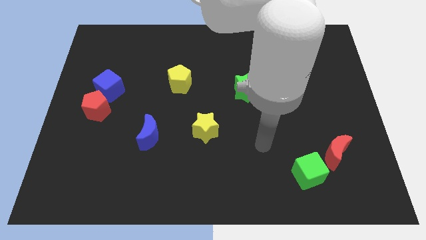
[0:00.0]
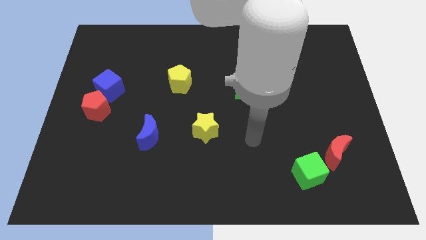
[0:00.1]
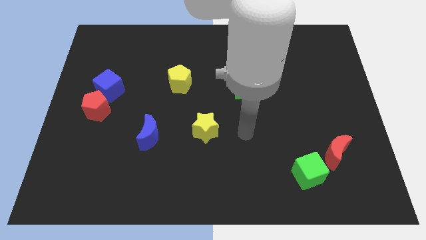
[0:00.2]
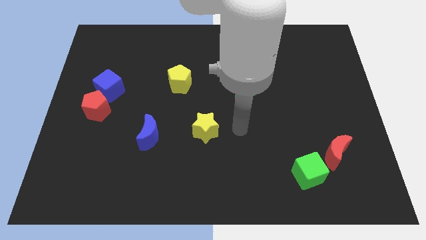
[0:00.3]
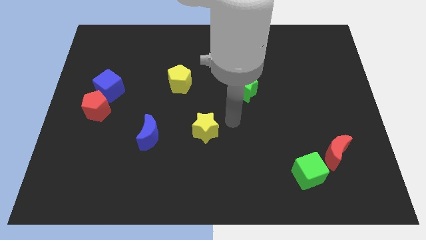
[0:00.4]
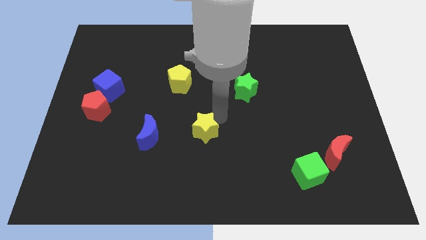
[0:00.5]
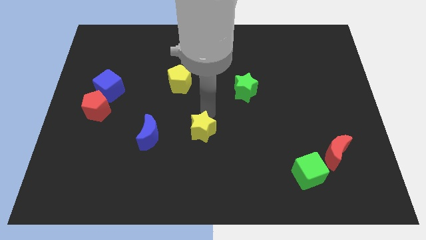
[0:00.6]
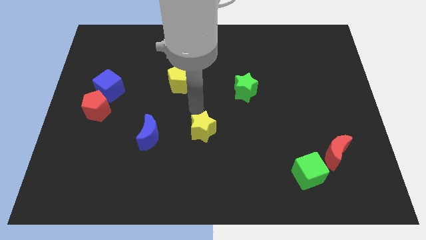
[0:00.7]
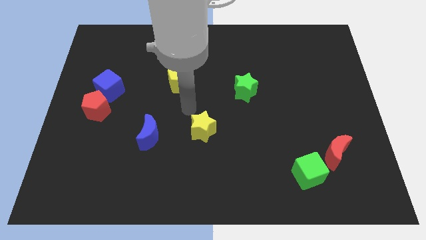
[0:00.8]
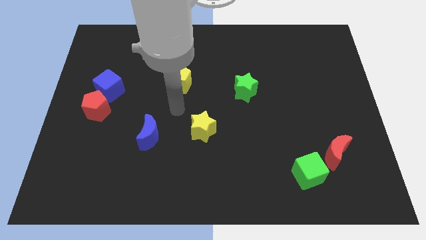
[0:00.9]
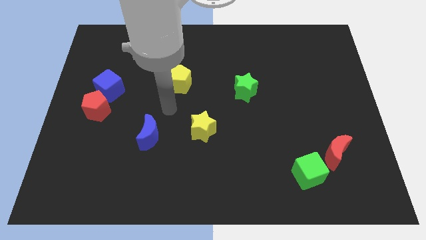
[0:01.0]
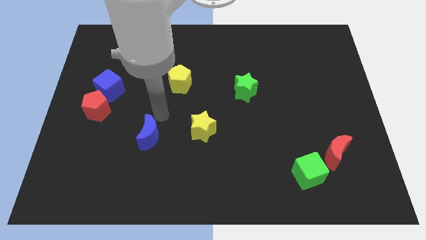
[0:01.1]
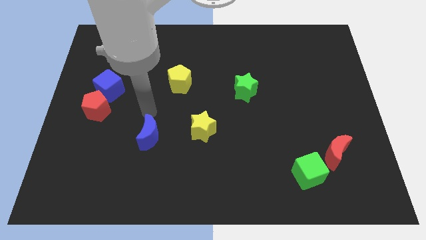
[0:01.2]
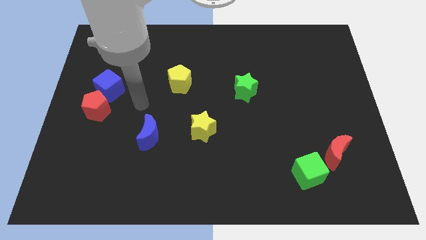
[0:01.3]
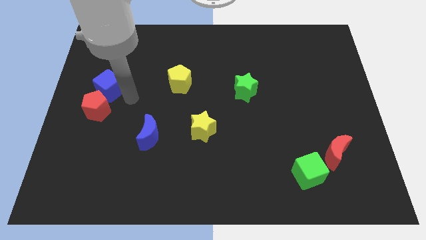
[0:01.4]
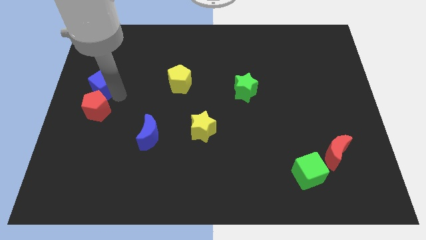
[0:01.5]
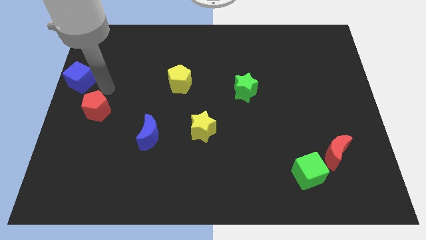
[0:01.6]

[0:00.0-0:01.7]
move the red pentagon away from the blue cube

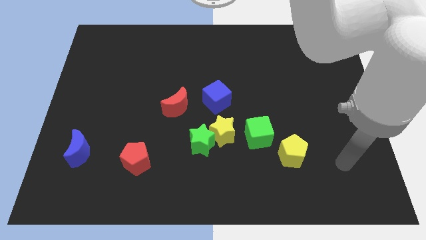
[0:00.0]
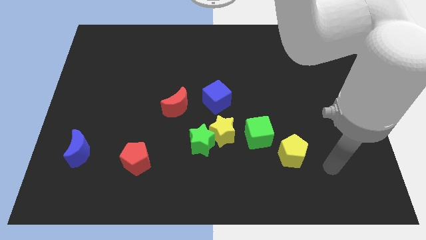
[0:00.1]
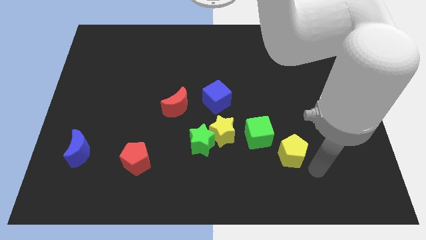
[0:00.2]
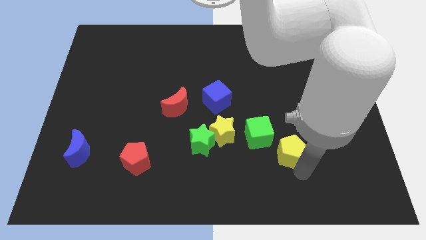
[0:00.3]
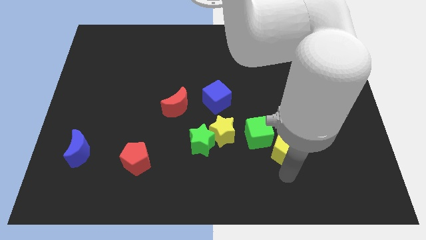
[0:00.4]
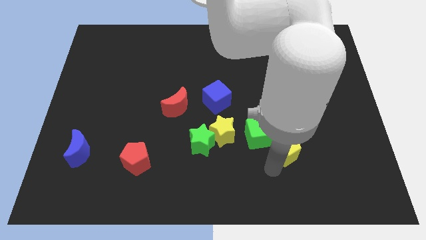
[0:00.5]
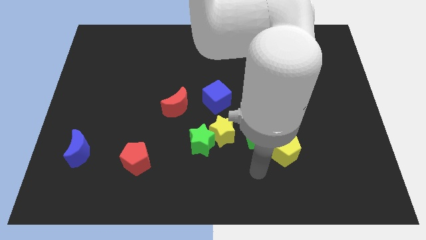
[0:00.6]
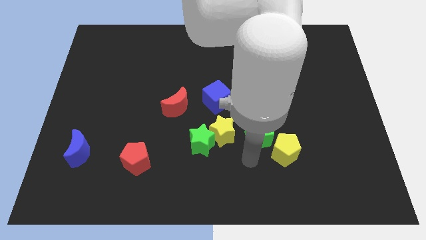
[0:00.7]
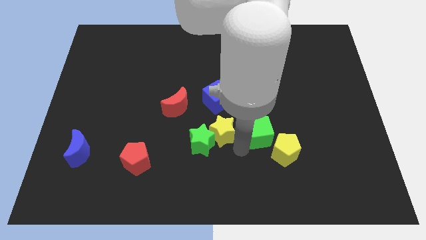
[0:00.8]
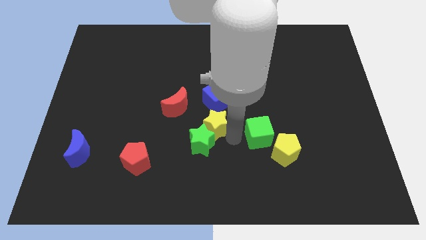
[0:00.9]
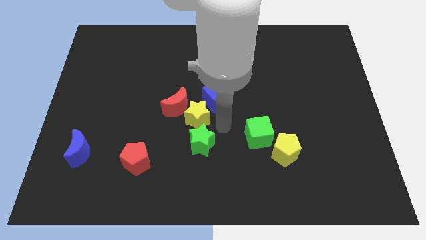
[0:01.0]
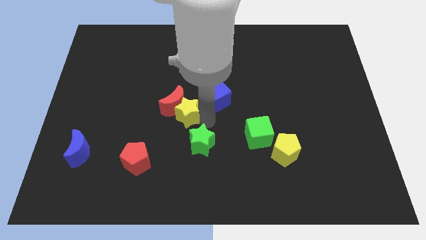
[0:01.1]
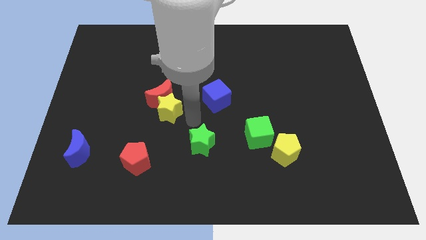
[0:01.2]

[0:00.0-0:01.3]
pull the green star apart from the yellow star

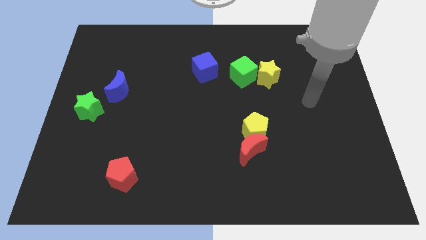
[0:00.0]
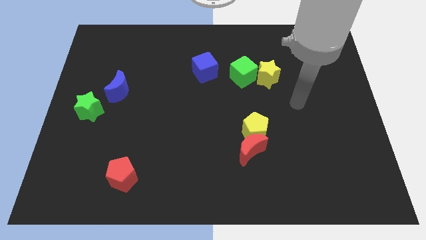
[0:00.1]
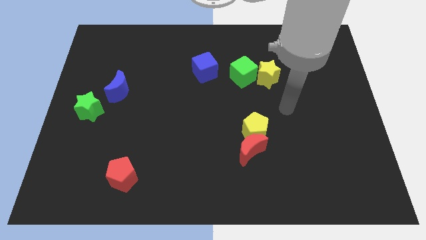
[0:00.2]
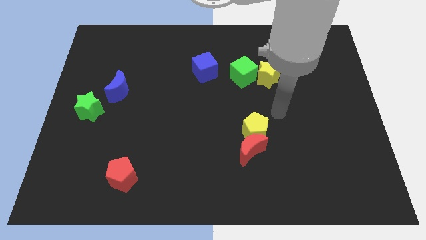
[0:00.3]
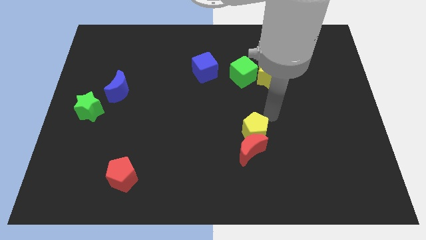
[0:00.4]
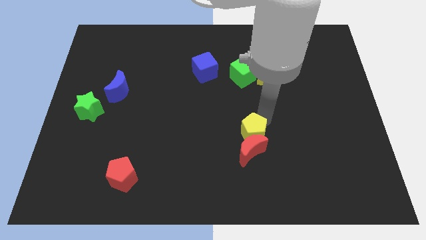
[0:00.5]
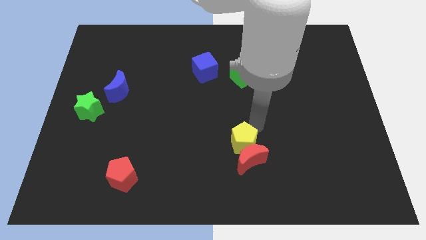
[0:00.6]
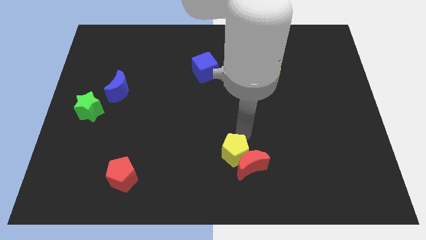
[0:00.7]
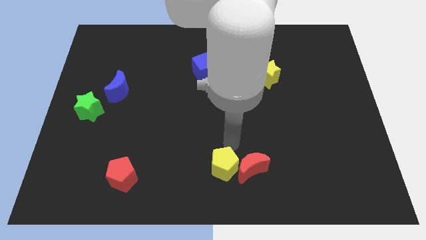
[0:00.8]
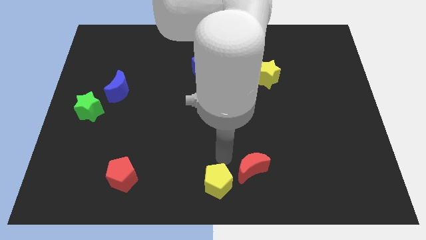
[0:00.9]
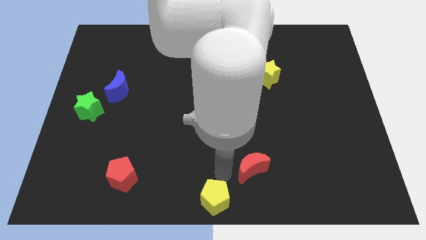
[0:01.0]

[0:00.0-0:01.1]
pull the red moon apart from the yellow pentagon

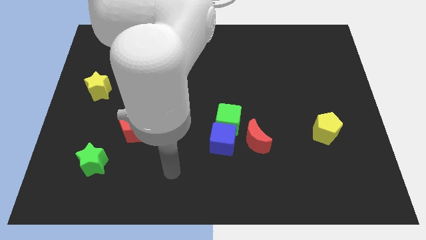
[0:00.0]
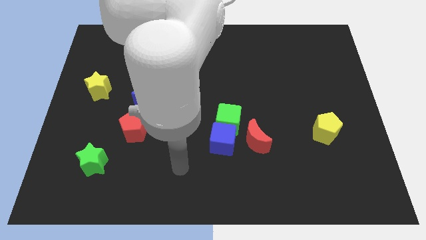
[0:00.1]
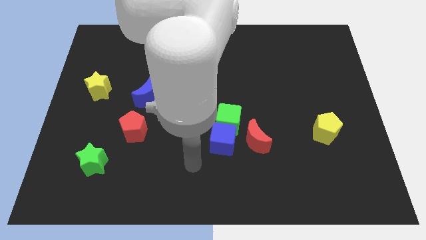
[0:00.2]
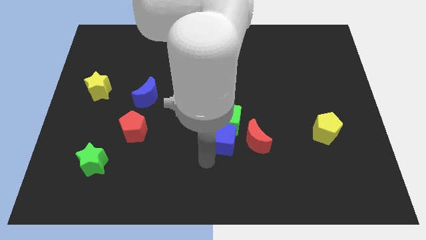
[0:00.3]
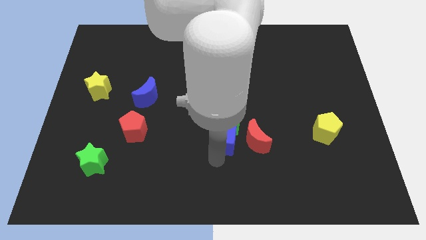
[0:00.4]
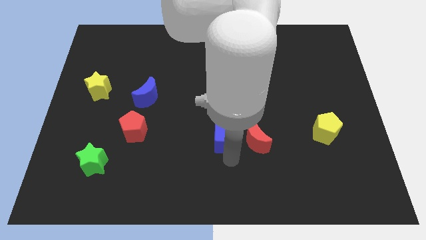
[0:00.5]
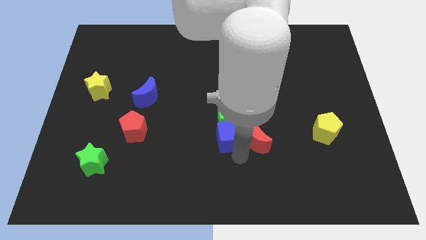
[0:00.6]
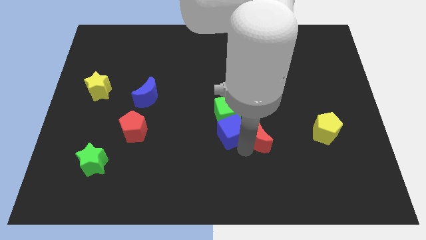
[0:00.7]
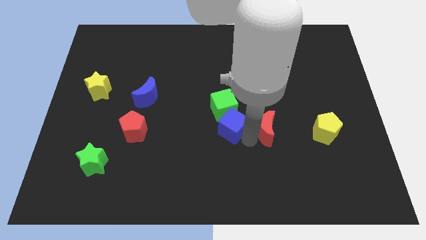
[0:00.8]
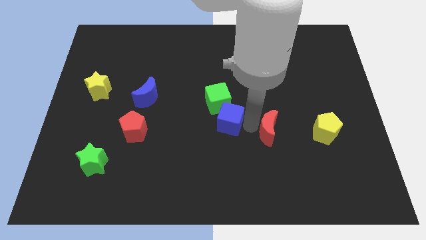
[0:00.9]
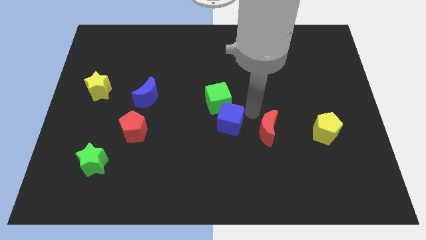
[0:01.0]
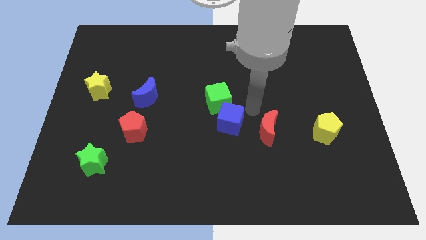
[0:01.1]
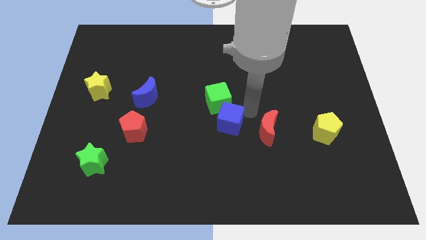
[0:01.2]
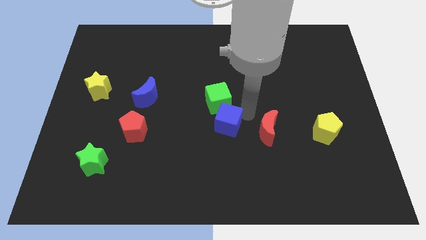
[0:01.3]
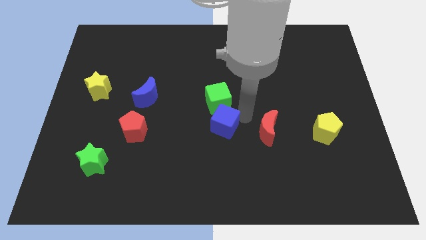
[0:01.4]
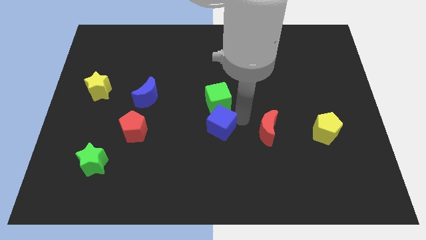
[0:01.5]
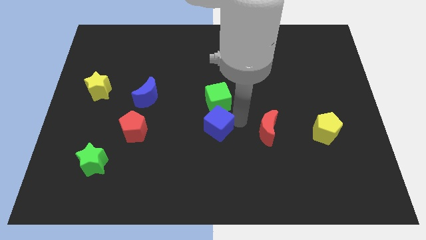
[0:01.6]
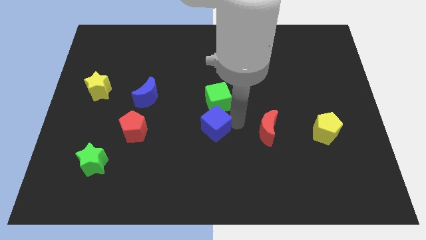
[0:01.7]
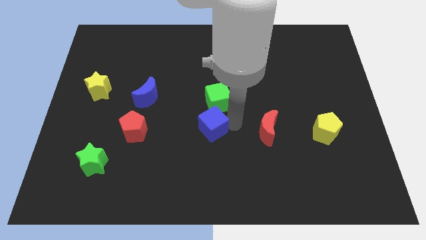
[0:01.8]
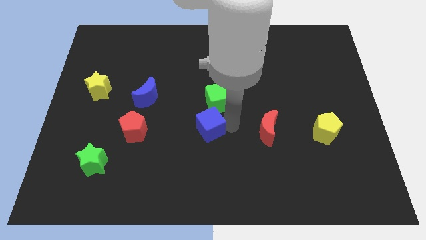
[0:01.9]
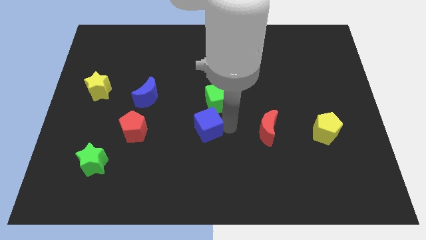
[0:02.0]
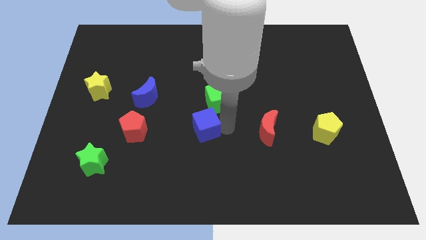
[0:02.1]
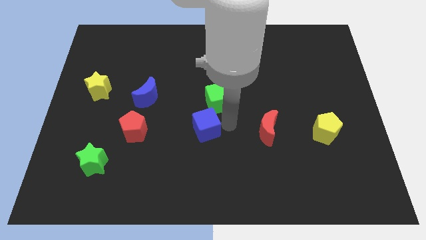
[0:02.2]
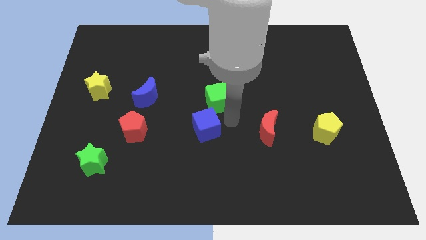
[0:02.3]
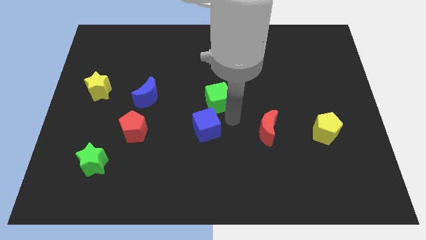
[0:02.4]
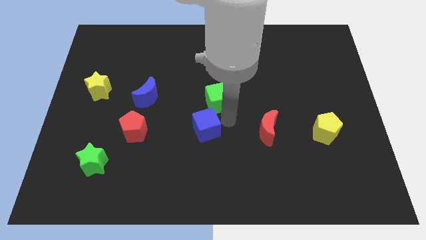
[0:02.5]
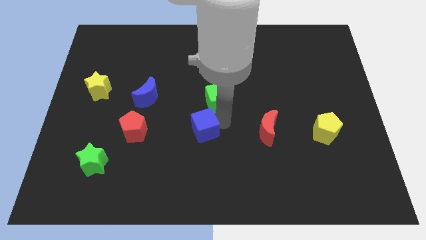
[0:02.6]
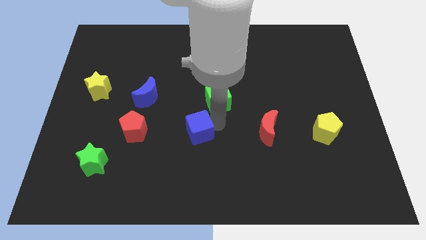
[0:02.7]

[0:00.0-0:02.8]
pull the blue cube apart from the green cube and red moon

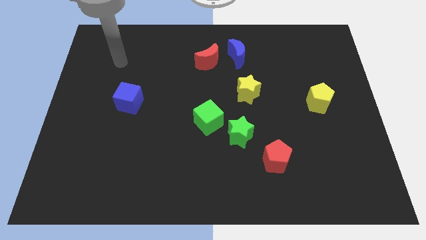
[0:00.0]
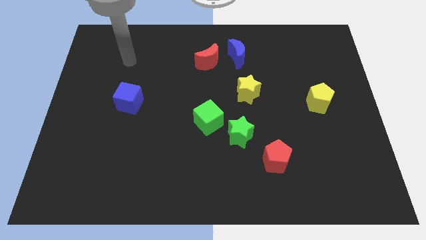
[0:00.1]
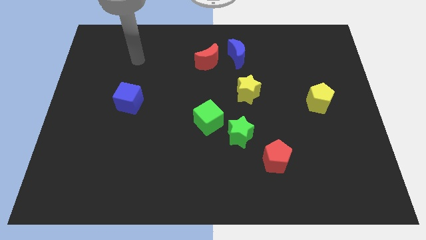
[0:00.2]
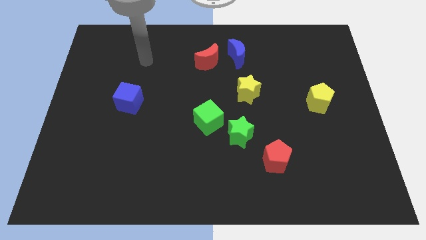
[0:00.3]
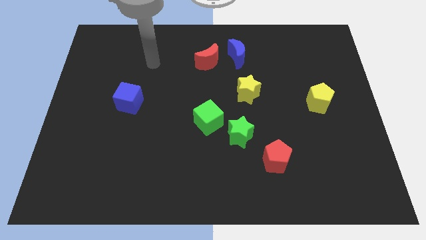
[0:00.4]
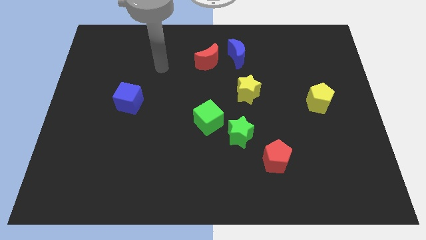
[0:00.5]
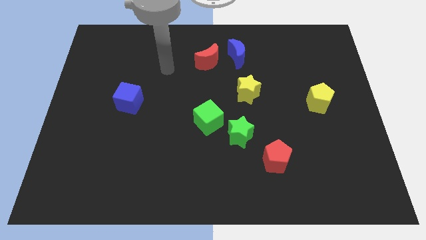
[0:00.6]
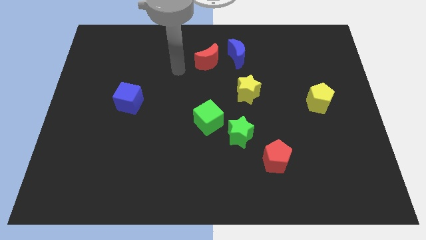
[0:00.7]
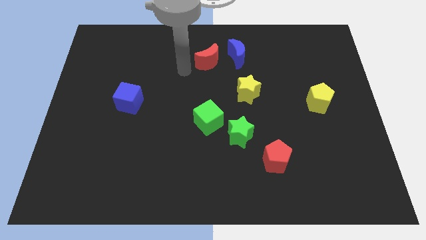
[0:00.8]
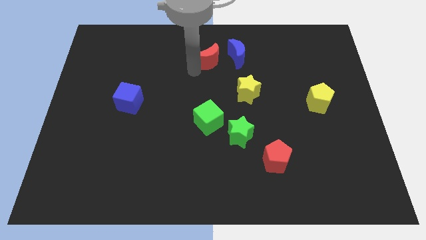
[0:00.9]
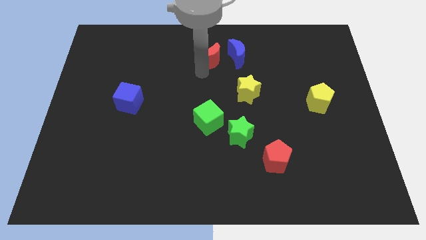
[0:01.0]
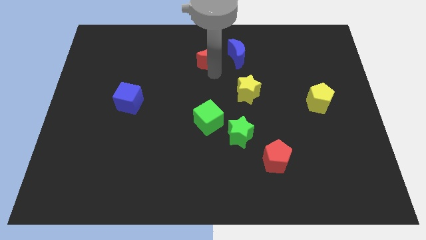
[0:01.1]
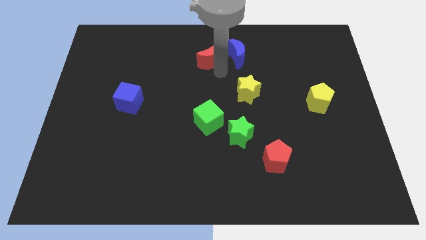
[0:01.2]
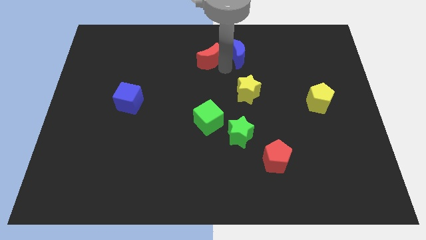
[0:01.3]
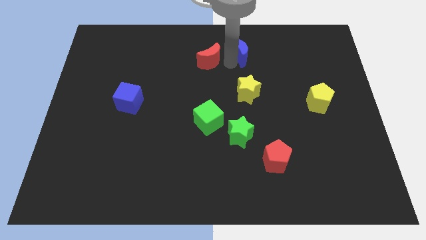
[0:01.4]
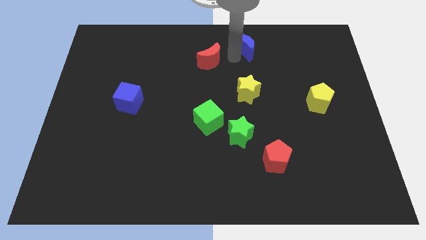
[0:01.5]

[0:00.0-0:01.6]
separate the red moon from the blue moon

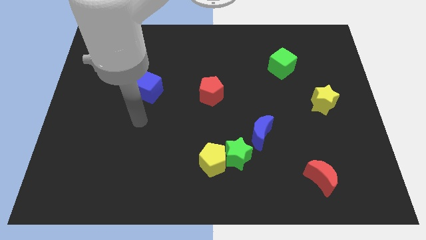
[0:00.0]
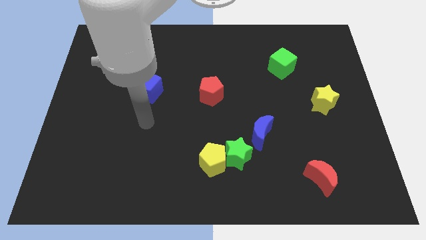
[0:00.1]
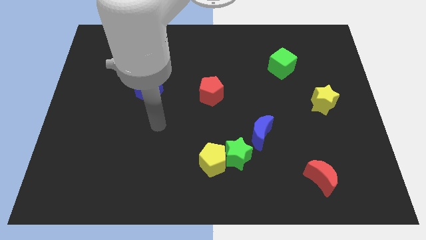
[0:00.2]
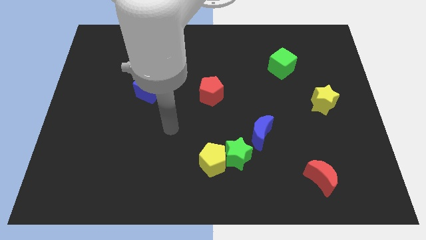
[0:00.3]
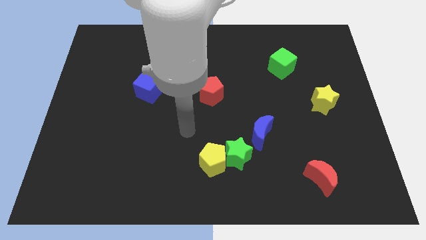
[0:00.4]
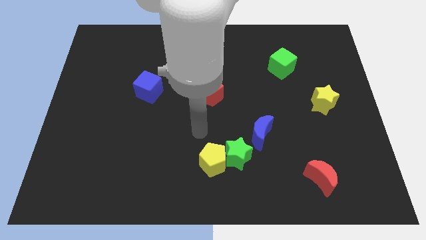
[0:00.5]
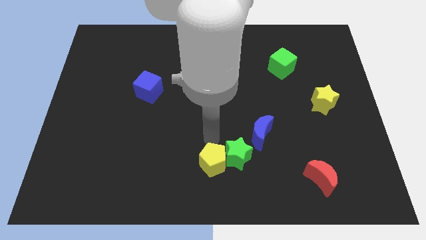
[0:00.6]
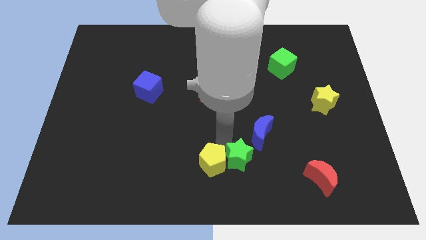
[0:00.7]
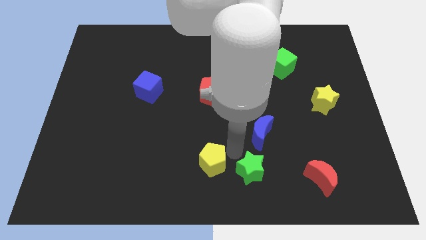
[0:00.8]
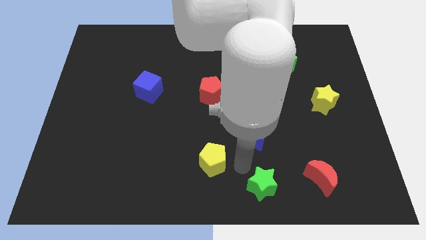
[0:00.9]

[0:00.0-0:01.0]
move the yellow pentagon away from the green star
